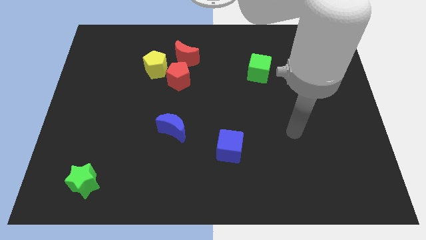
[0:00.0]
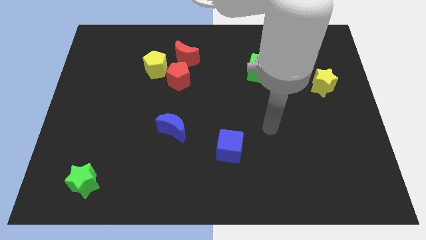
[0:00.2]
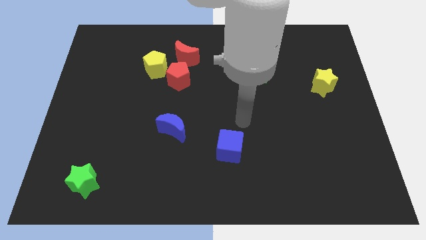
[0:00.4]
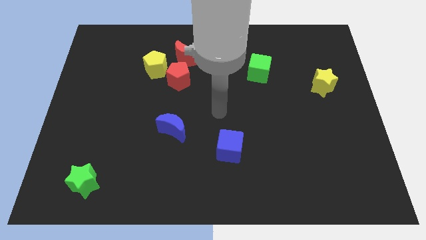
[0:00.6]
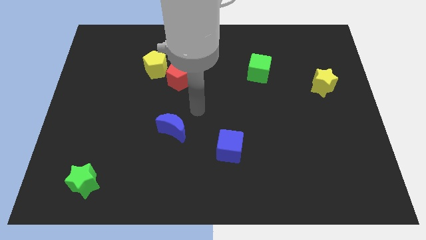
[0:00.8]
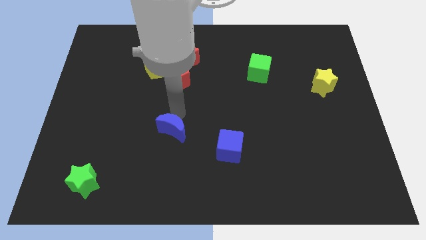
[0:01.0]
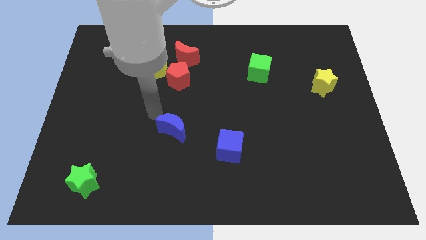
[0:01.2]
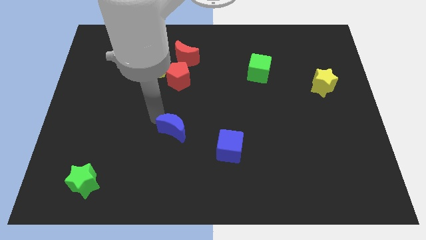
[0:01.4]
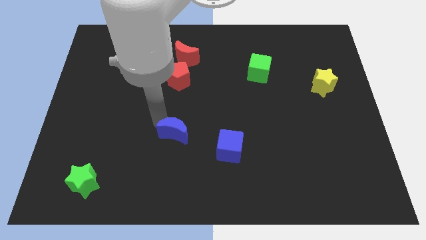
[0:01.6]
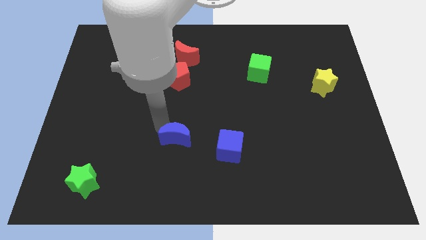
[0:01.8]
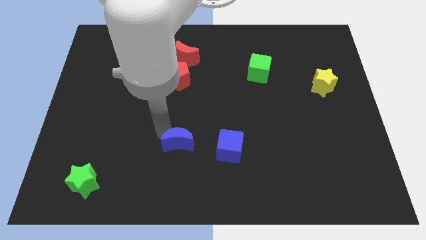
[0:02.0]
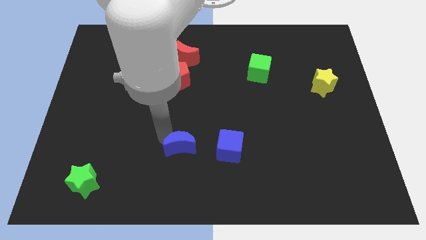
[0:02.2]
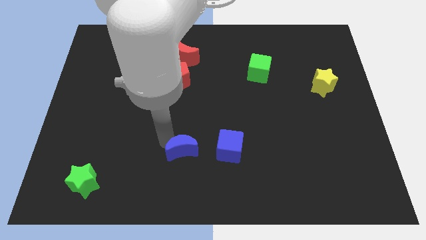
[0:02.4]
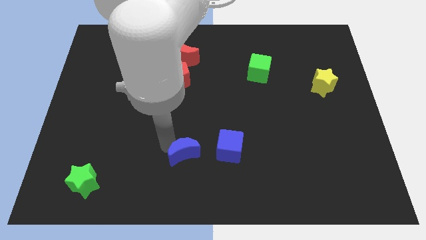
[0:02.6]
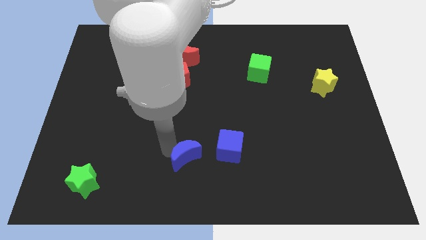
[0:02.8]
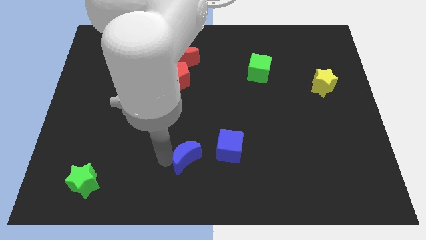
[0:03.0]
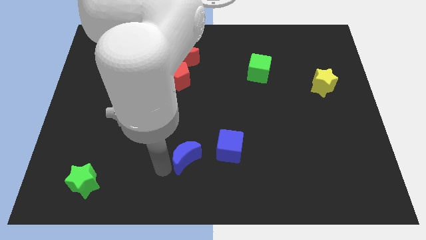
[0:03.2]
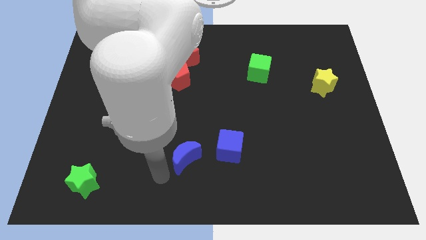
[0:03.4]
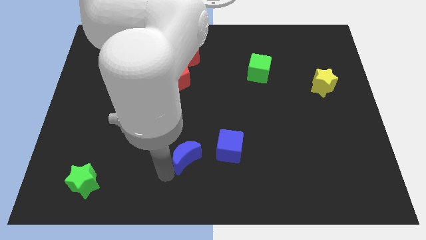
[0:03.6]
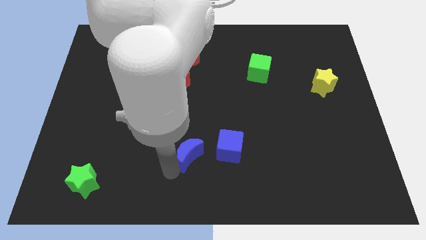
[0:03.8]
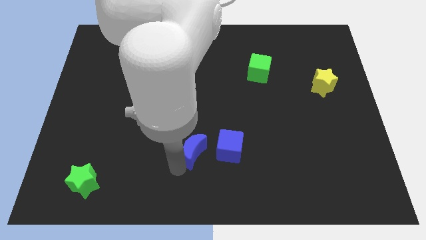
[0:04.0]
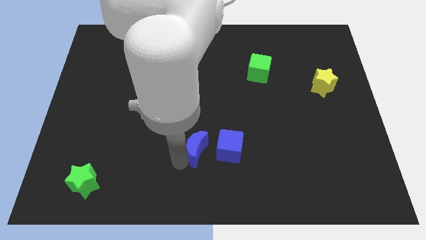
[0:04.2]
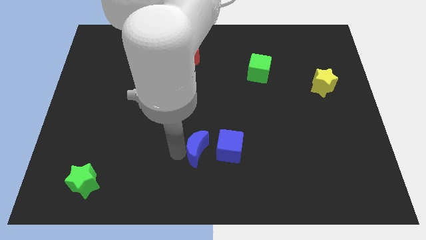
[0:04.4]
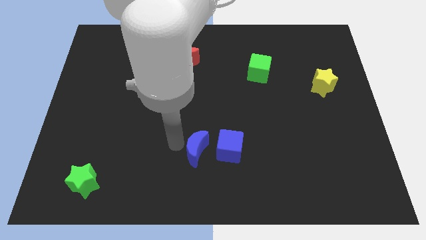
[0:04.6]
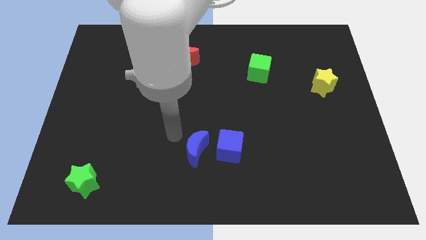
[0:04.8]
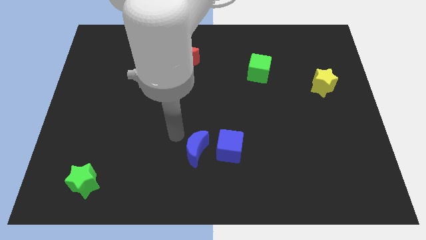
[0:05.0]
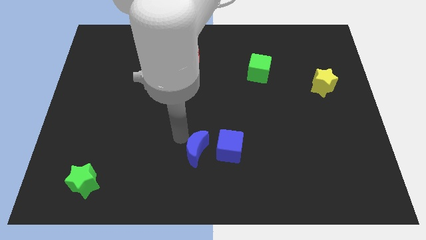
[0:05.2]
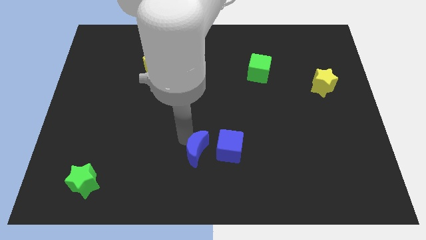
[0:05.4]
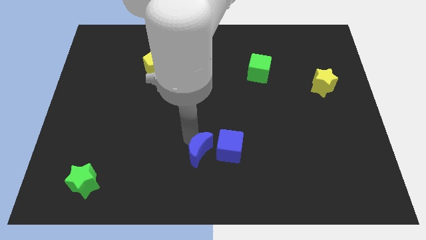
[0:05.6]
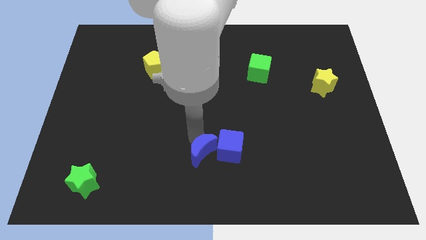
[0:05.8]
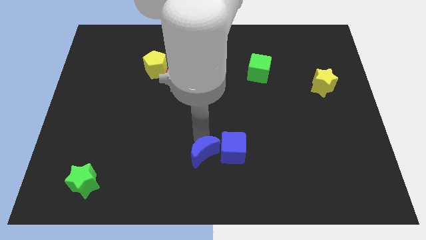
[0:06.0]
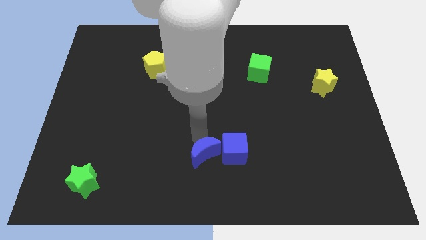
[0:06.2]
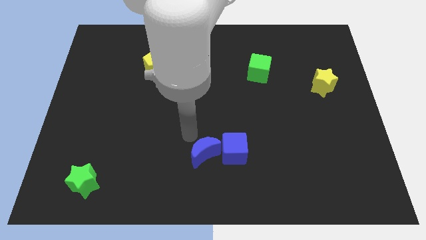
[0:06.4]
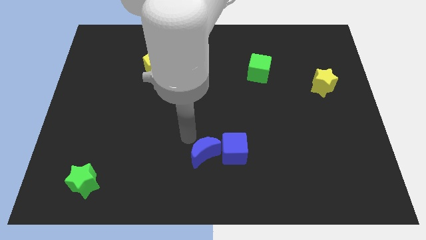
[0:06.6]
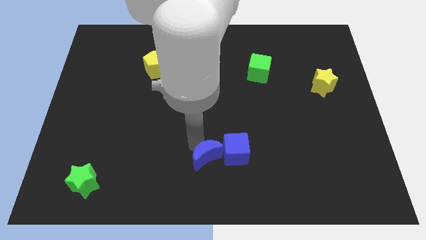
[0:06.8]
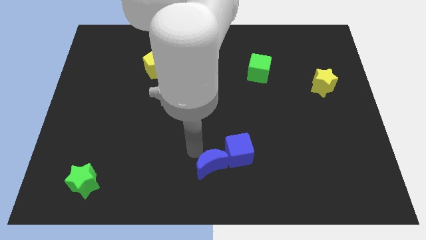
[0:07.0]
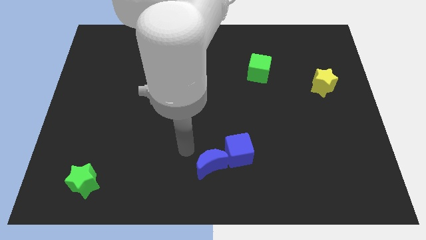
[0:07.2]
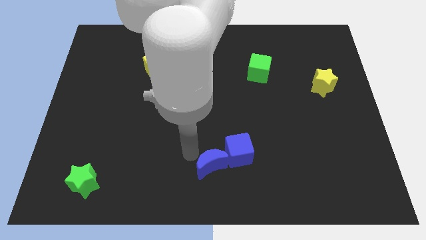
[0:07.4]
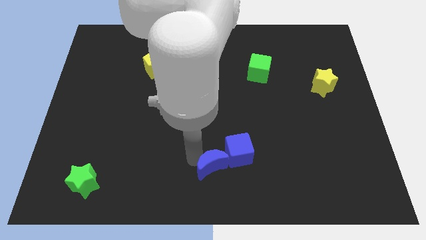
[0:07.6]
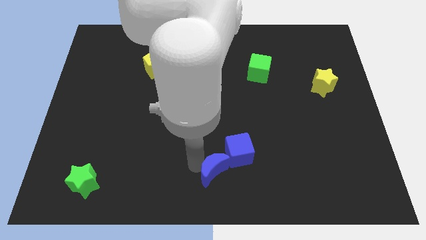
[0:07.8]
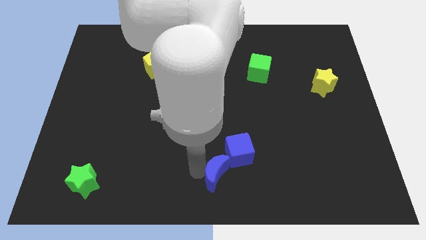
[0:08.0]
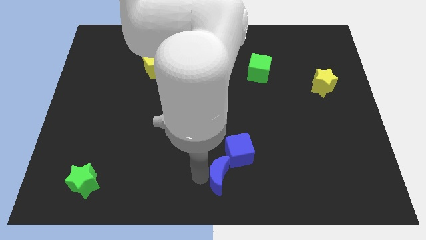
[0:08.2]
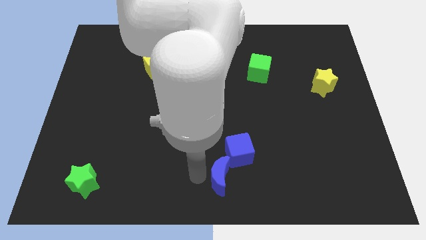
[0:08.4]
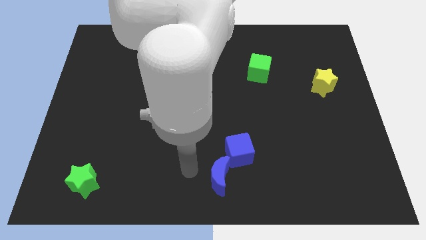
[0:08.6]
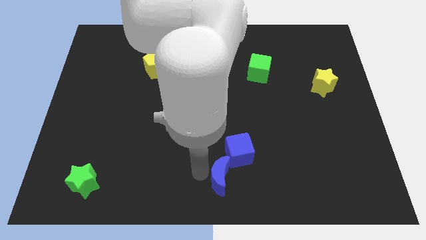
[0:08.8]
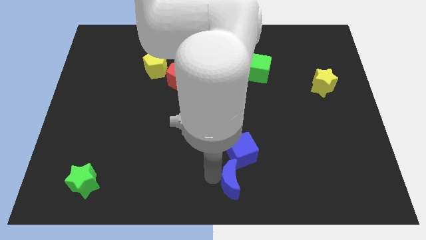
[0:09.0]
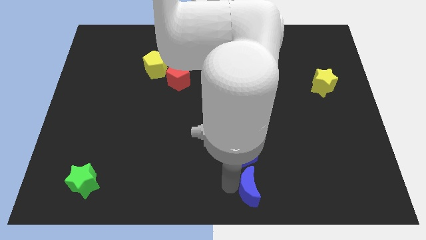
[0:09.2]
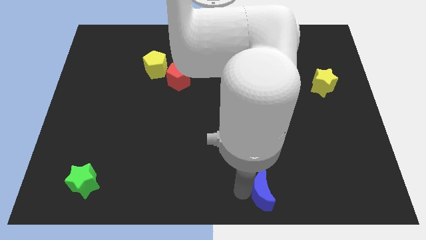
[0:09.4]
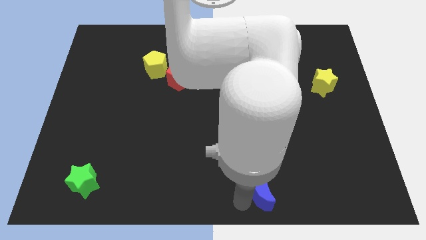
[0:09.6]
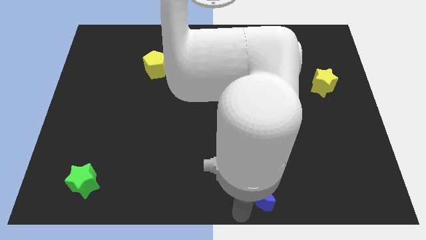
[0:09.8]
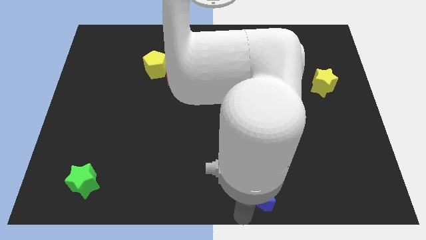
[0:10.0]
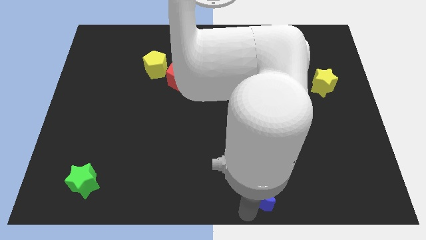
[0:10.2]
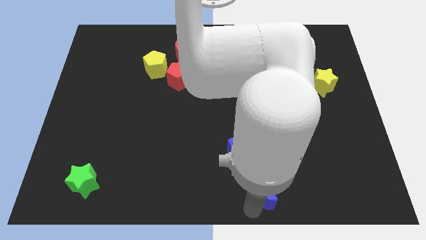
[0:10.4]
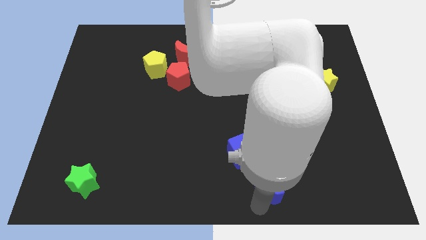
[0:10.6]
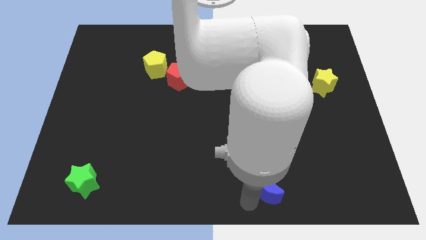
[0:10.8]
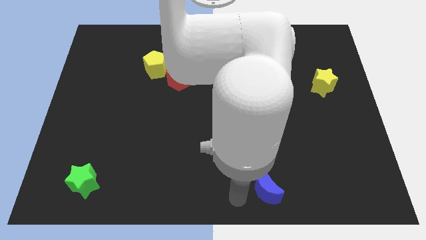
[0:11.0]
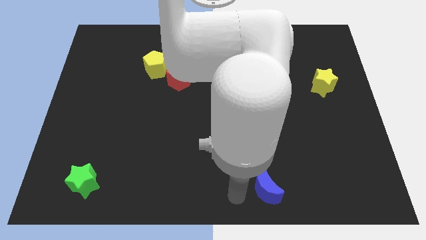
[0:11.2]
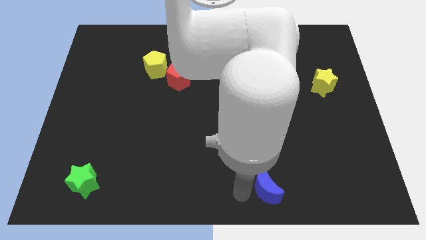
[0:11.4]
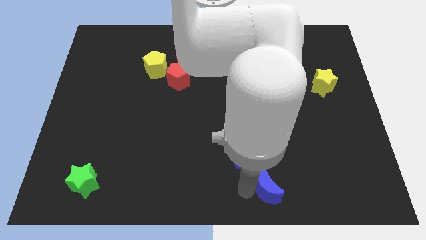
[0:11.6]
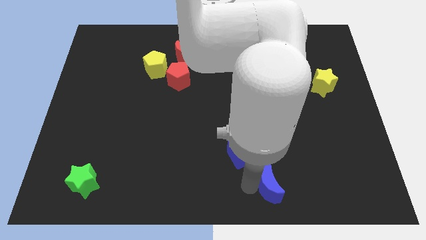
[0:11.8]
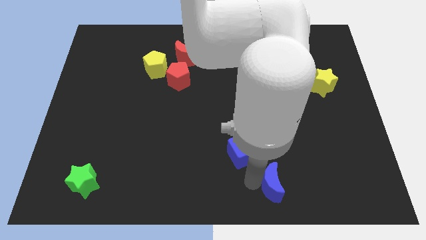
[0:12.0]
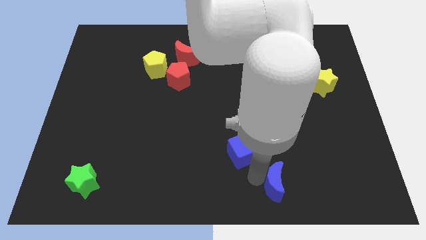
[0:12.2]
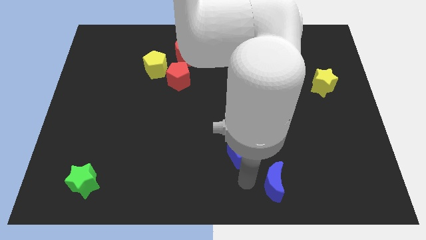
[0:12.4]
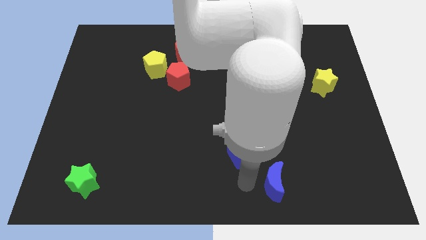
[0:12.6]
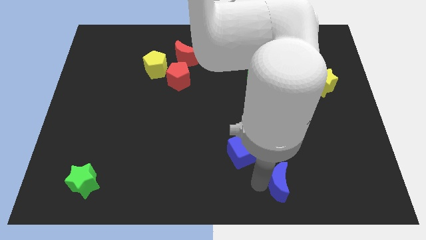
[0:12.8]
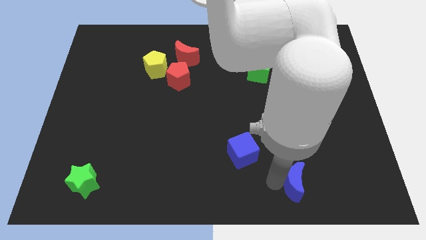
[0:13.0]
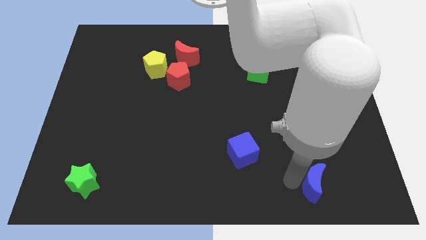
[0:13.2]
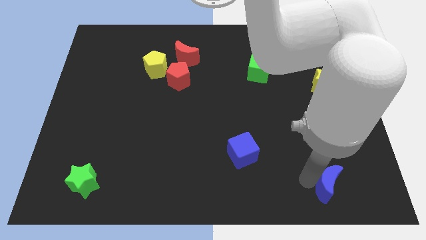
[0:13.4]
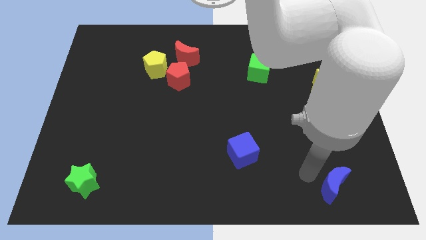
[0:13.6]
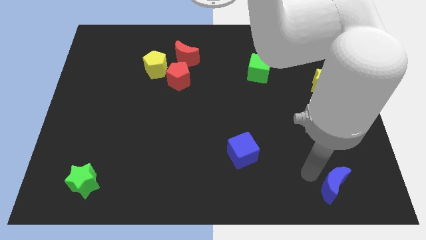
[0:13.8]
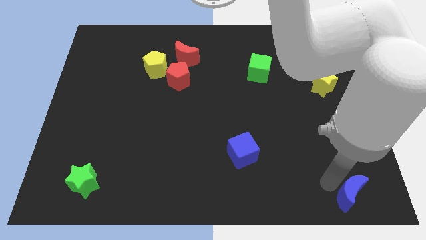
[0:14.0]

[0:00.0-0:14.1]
put the blue moon to the bottom right
